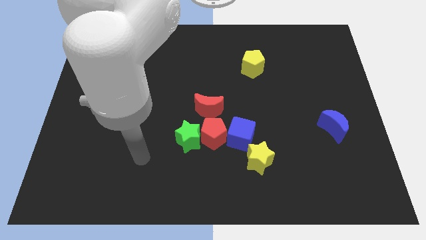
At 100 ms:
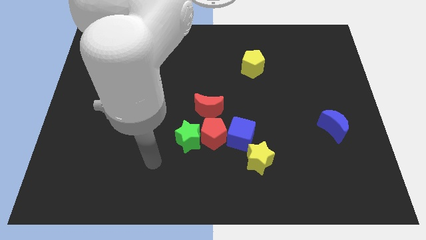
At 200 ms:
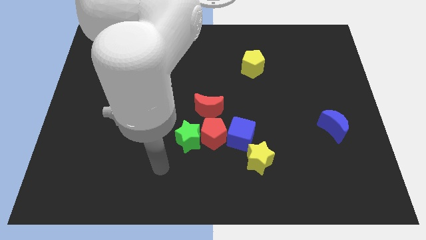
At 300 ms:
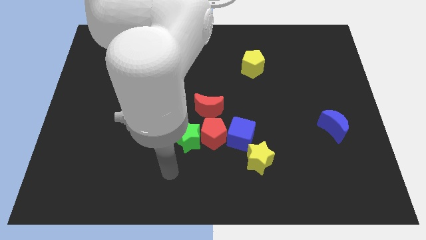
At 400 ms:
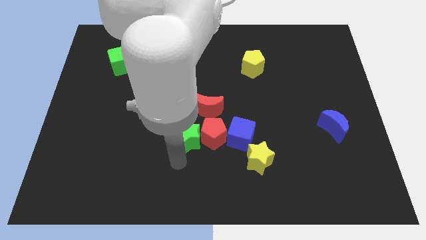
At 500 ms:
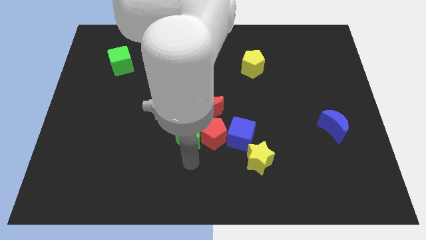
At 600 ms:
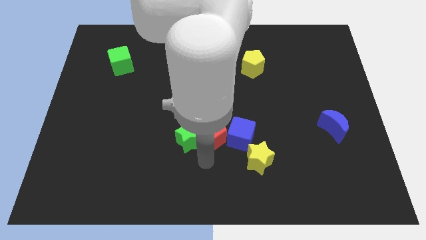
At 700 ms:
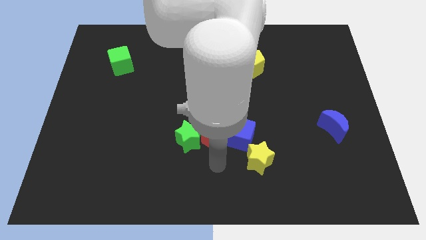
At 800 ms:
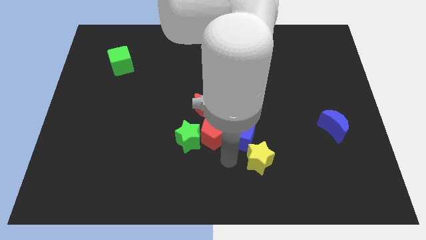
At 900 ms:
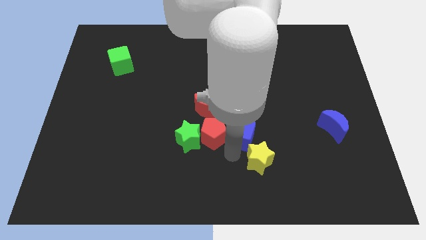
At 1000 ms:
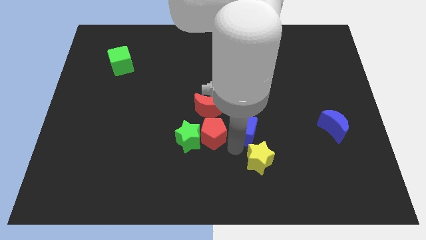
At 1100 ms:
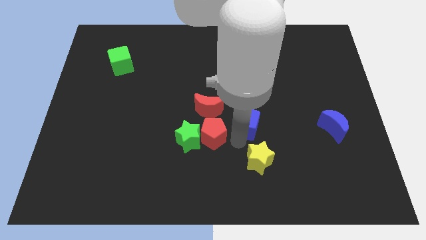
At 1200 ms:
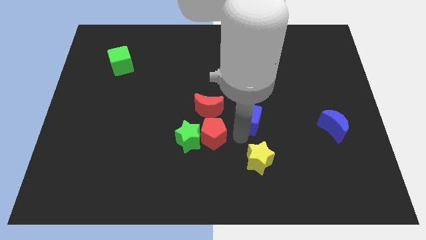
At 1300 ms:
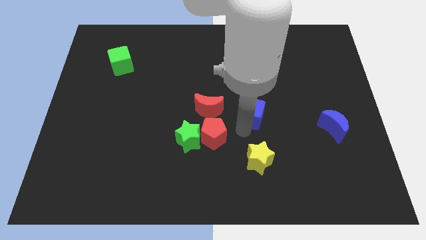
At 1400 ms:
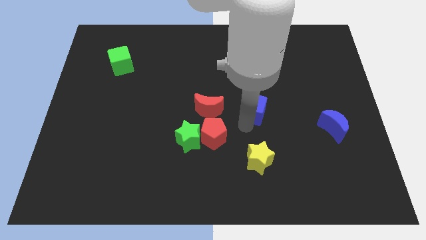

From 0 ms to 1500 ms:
pull the blue cube apart from the red pentagon and yellow star

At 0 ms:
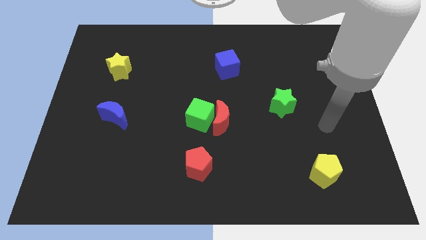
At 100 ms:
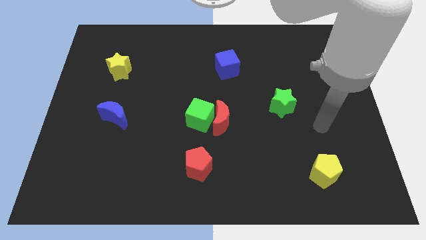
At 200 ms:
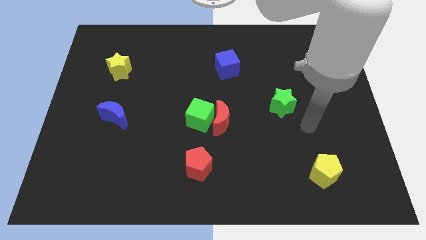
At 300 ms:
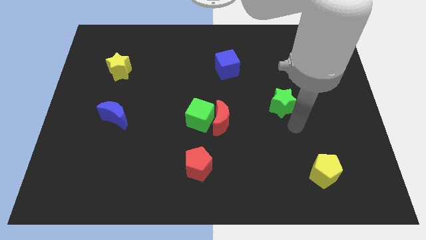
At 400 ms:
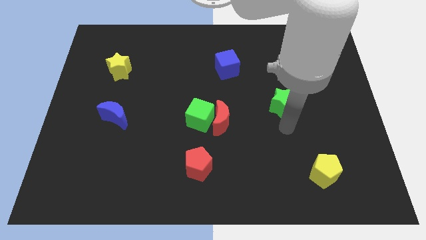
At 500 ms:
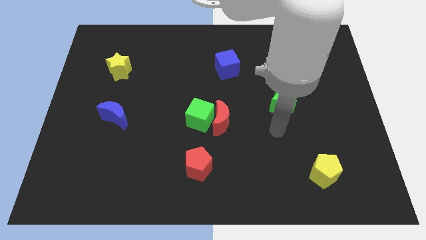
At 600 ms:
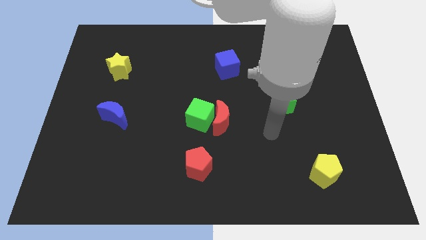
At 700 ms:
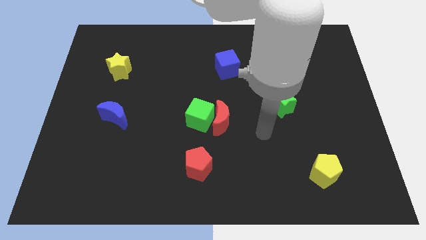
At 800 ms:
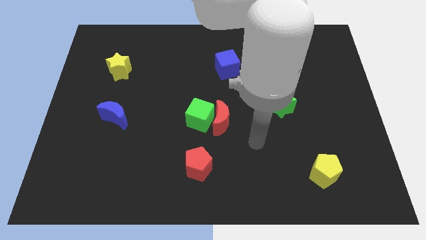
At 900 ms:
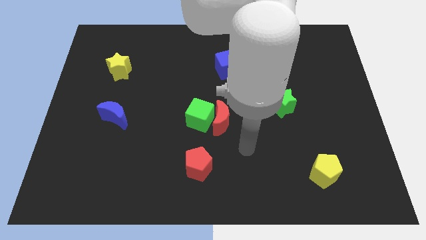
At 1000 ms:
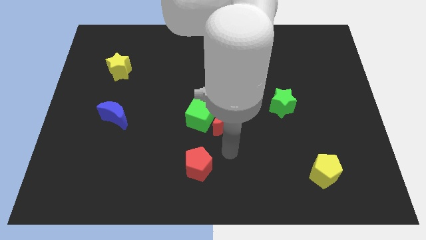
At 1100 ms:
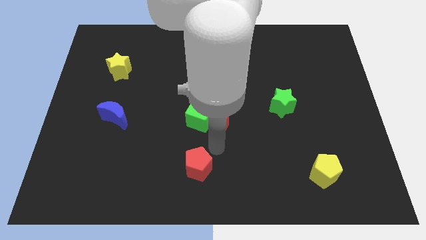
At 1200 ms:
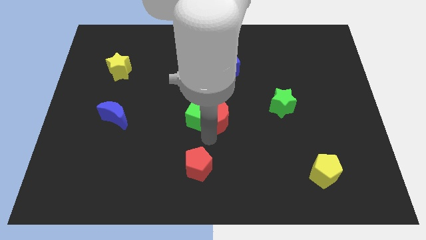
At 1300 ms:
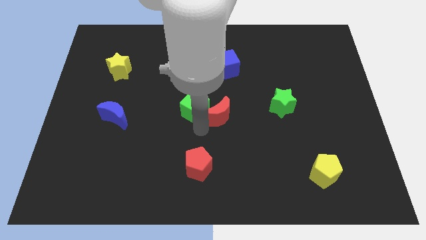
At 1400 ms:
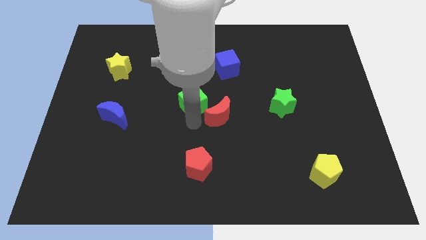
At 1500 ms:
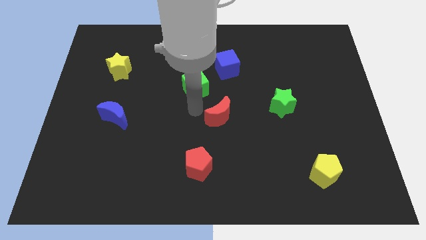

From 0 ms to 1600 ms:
pull the red moon apart from the green cube

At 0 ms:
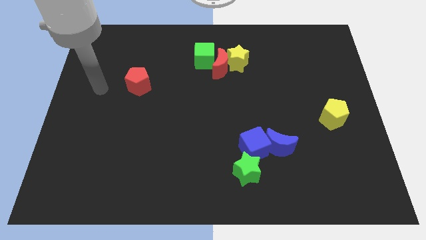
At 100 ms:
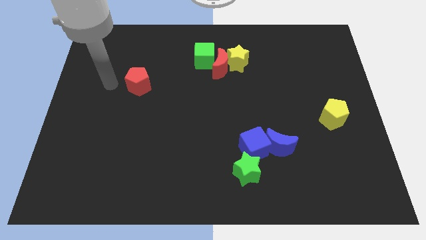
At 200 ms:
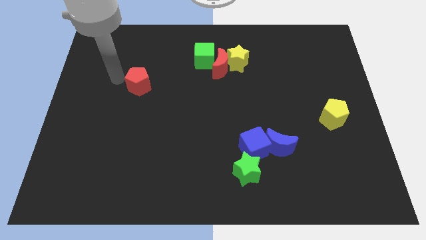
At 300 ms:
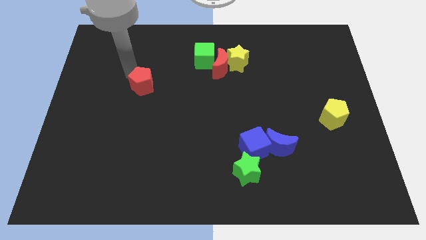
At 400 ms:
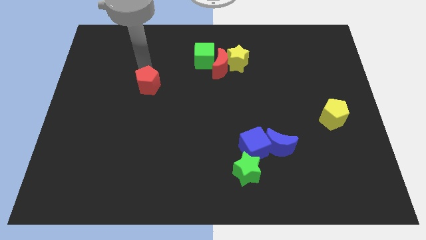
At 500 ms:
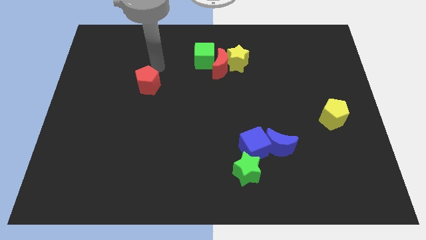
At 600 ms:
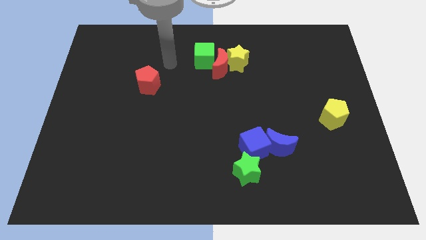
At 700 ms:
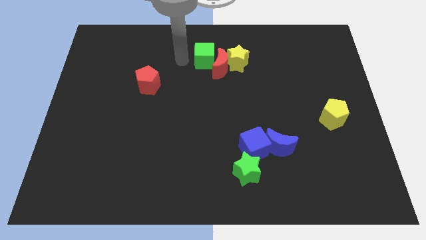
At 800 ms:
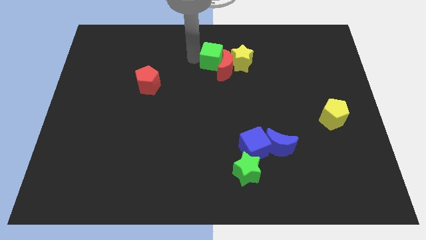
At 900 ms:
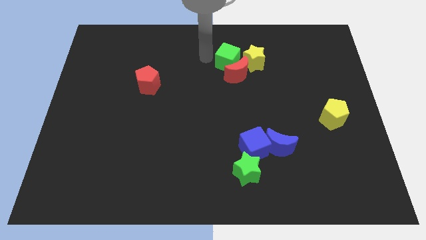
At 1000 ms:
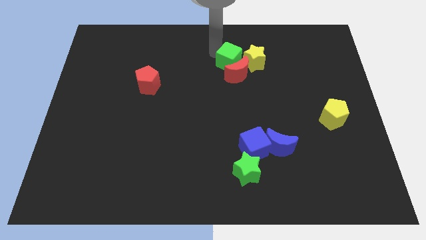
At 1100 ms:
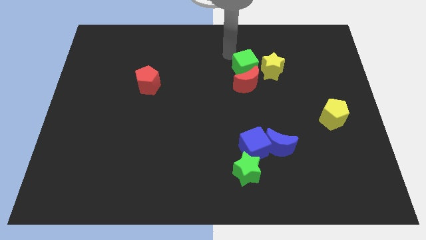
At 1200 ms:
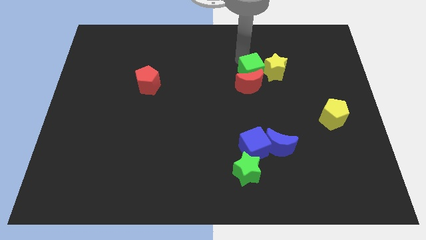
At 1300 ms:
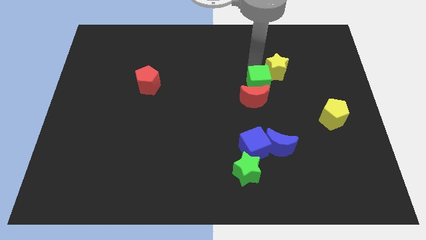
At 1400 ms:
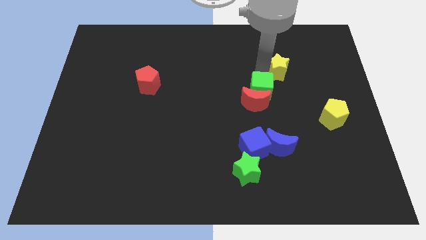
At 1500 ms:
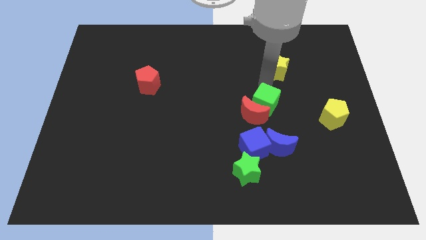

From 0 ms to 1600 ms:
pull the red moon apart from the yellow star and green cube

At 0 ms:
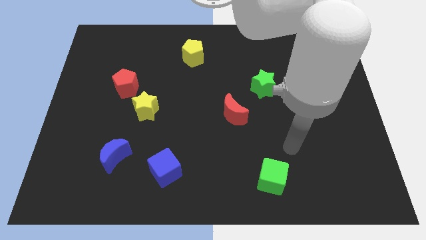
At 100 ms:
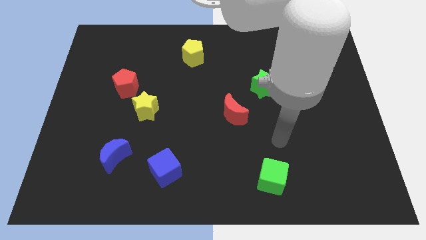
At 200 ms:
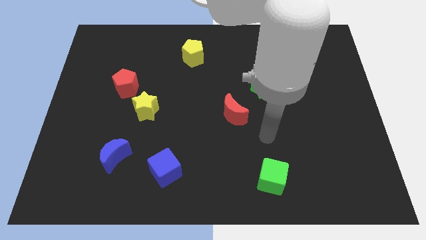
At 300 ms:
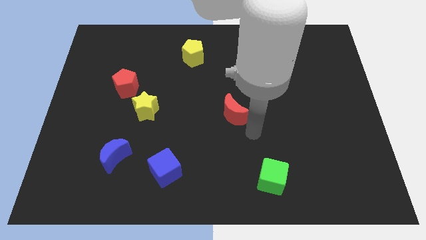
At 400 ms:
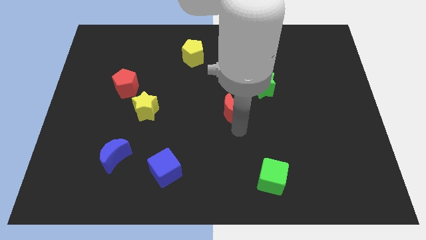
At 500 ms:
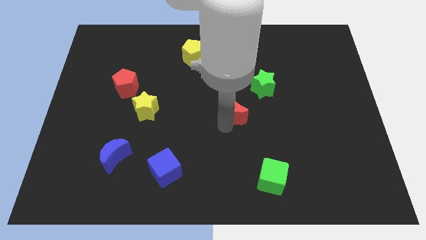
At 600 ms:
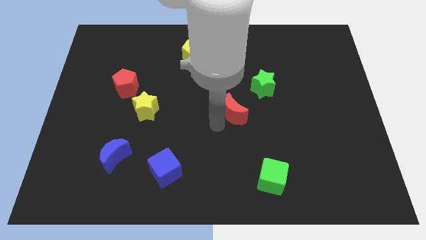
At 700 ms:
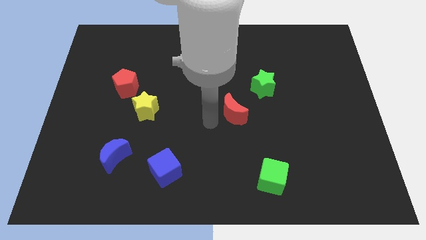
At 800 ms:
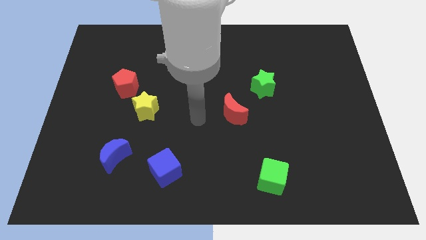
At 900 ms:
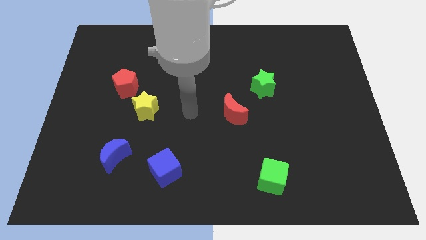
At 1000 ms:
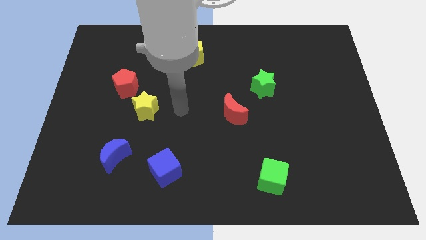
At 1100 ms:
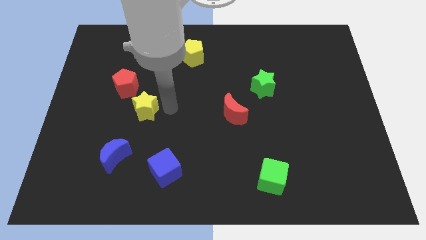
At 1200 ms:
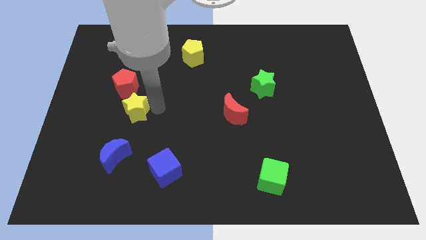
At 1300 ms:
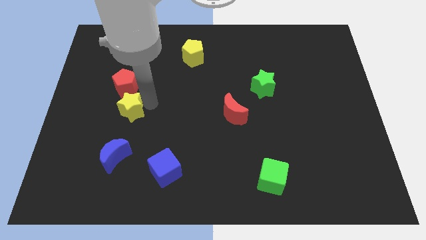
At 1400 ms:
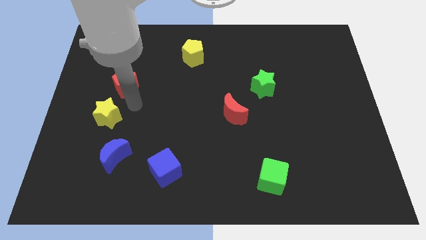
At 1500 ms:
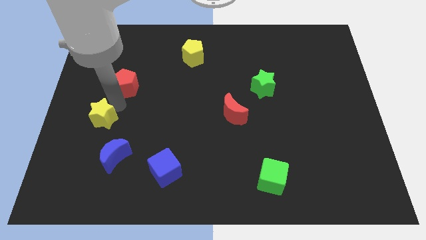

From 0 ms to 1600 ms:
move the red pentagon away from the yellow star

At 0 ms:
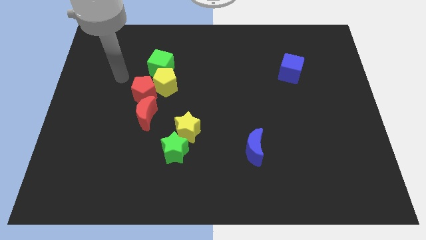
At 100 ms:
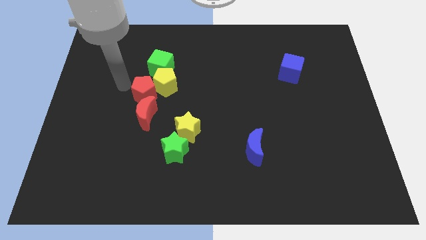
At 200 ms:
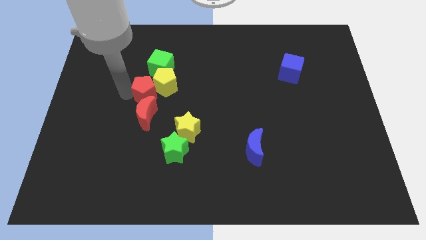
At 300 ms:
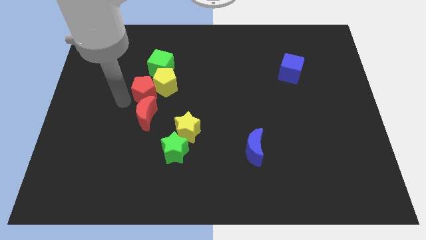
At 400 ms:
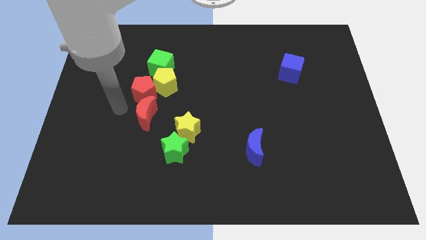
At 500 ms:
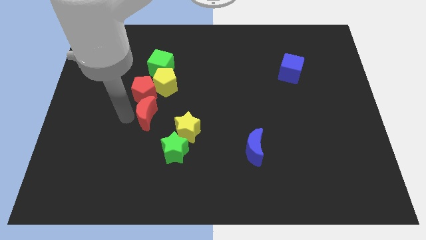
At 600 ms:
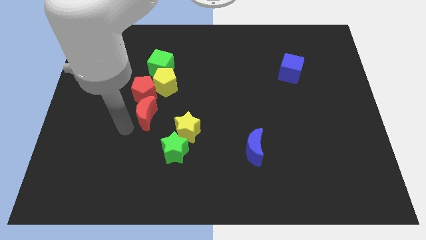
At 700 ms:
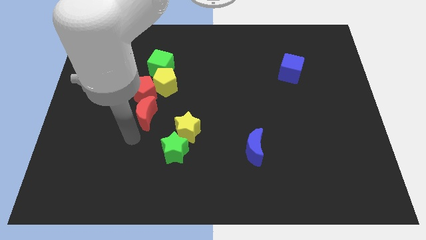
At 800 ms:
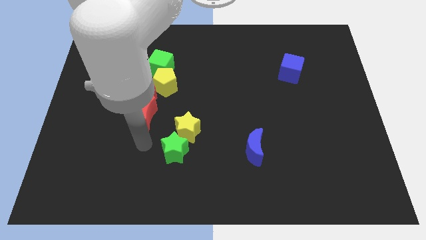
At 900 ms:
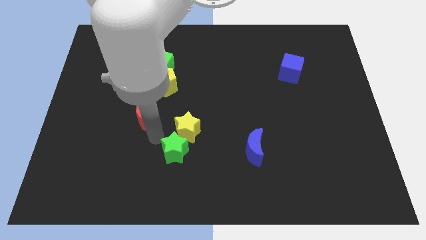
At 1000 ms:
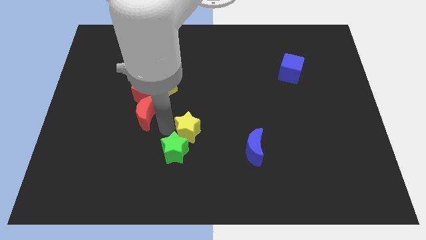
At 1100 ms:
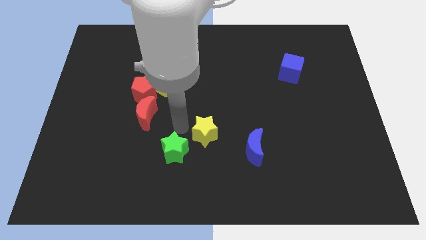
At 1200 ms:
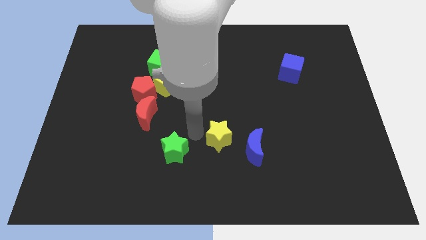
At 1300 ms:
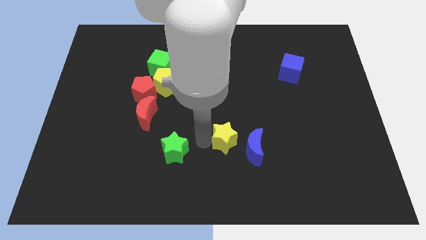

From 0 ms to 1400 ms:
move the green star away from the yellow star

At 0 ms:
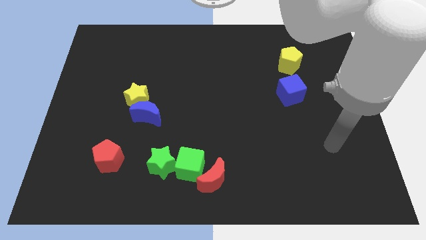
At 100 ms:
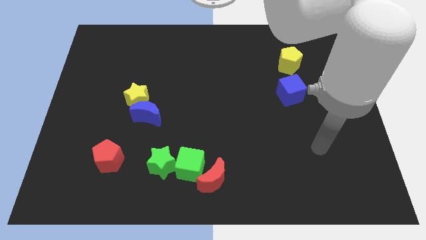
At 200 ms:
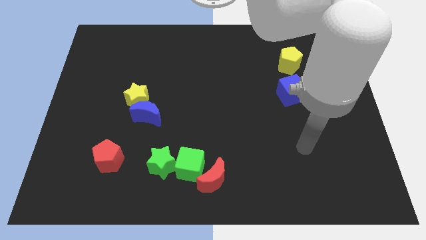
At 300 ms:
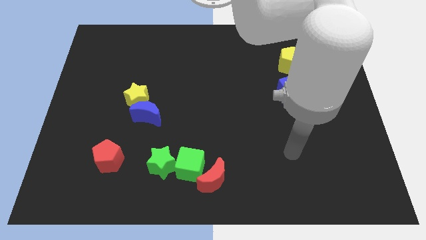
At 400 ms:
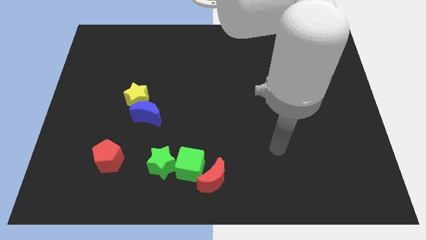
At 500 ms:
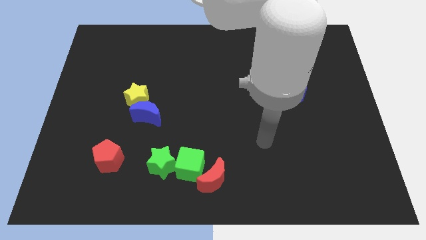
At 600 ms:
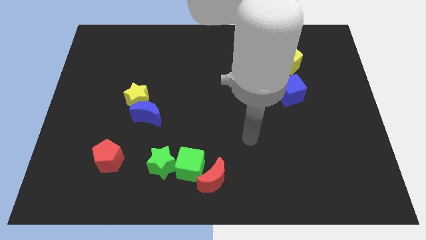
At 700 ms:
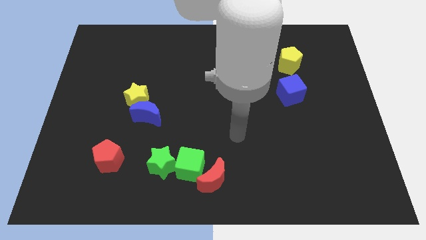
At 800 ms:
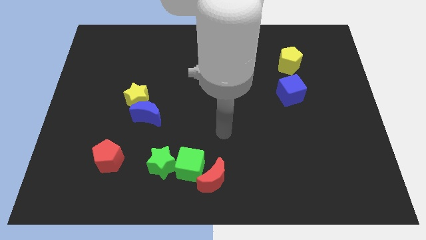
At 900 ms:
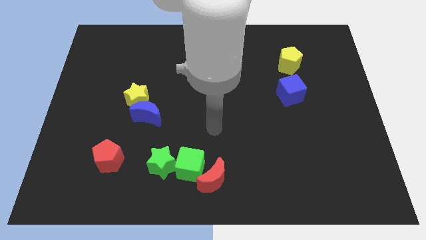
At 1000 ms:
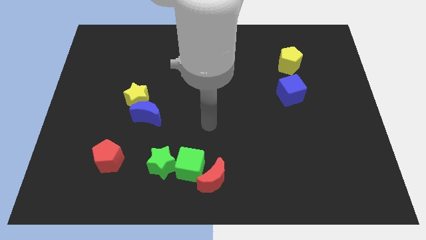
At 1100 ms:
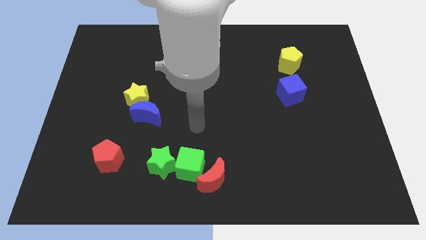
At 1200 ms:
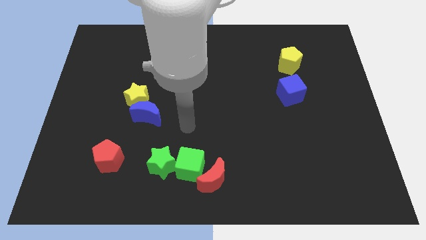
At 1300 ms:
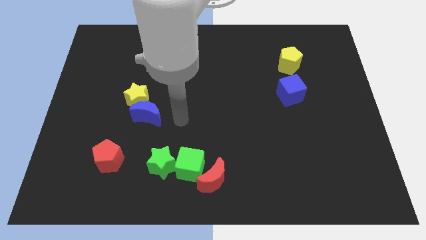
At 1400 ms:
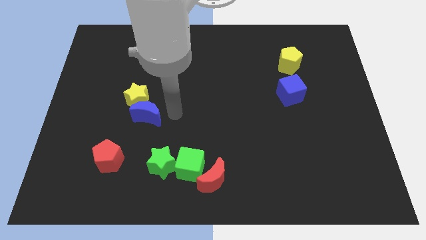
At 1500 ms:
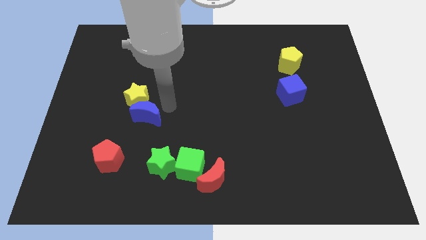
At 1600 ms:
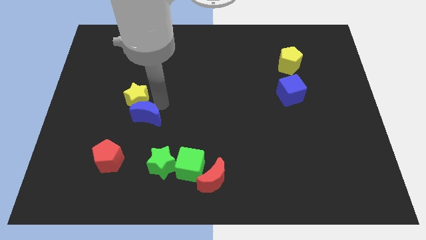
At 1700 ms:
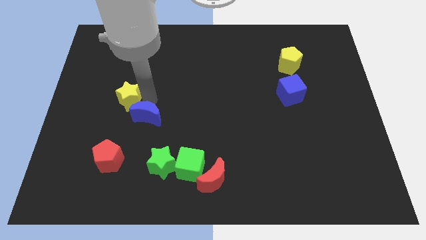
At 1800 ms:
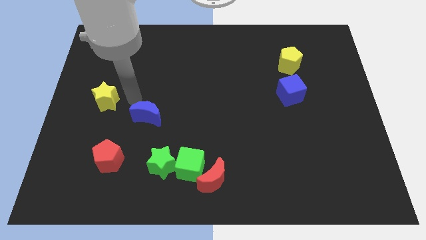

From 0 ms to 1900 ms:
separate the blue moon from the yellow star
